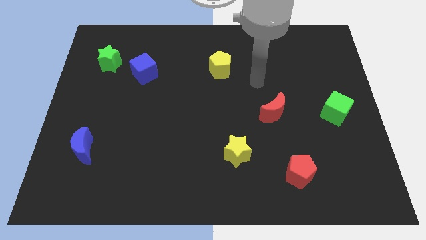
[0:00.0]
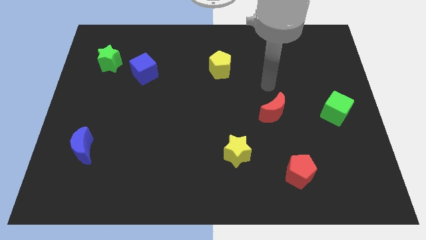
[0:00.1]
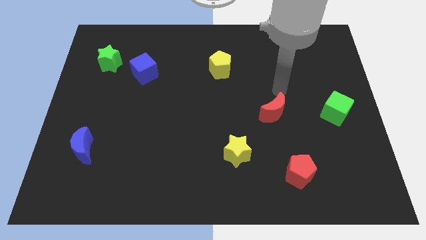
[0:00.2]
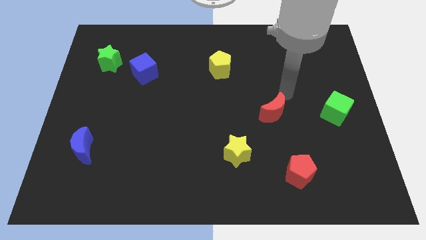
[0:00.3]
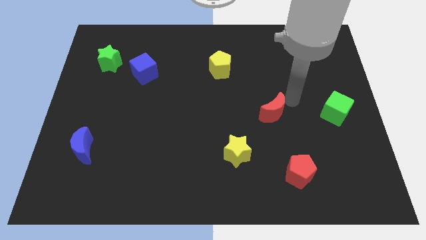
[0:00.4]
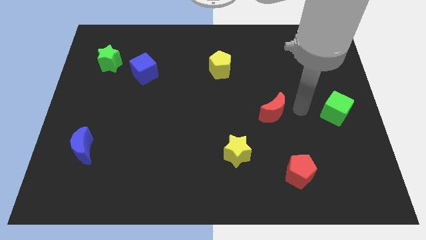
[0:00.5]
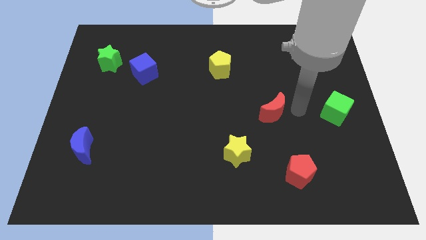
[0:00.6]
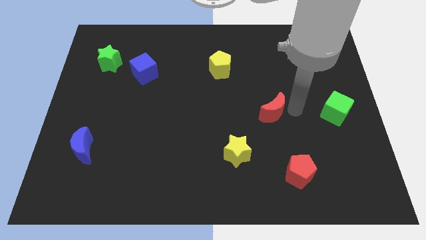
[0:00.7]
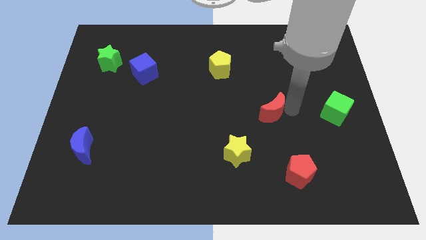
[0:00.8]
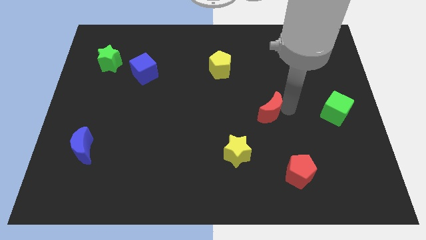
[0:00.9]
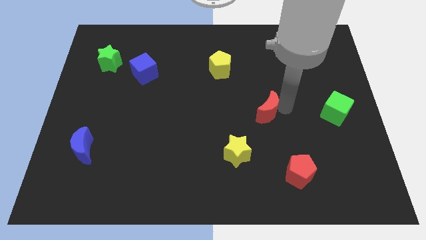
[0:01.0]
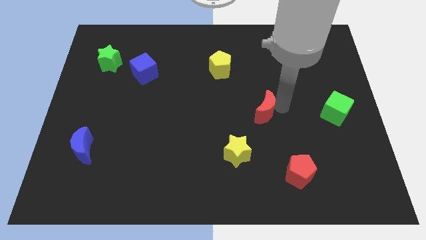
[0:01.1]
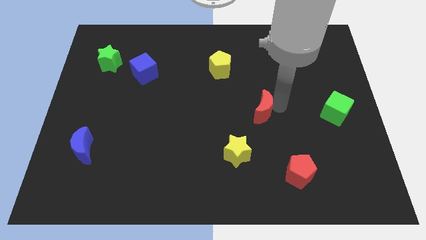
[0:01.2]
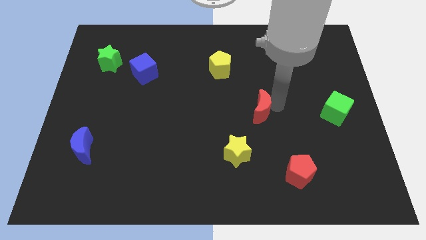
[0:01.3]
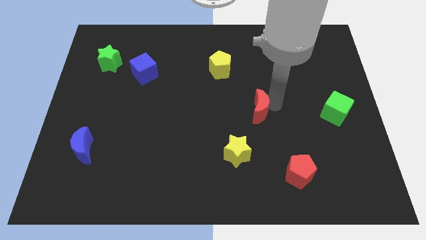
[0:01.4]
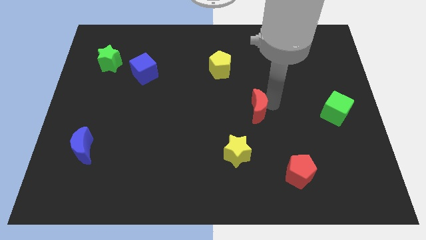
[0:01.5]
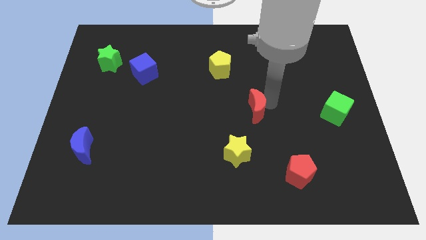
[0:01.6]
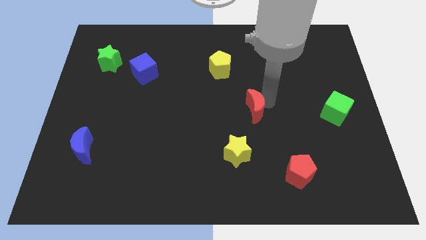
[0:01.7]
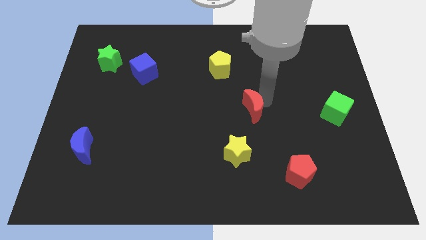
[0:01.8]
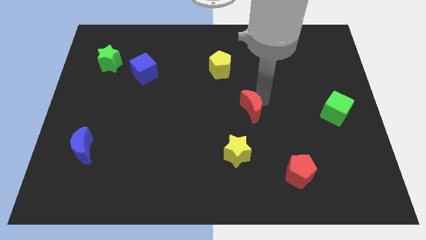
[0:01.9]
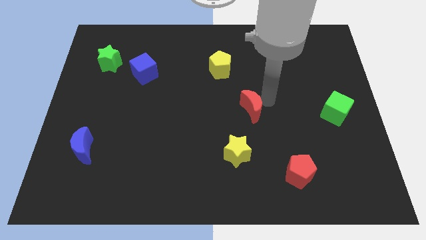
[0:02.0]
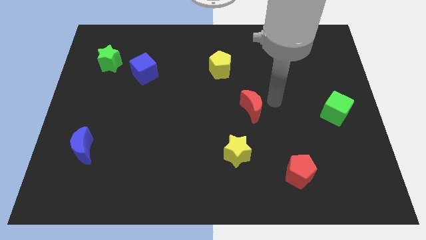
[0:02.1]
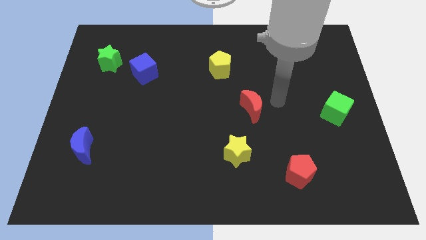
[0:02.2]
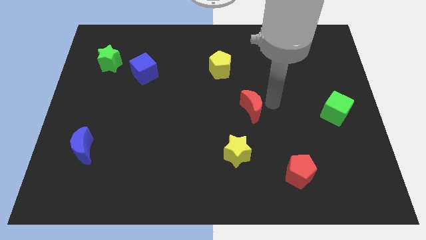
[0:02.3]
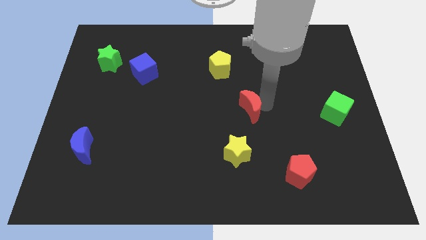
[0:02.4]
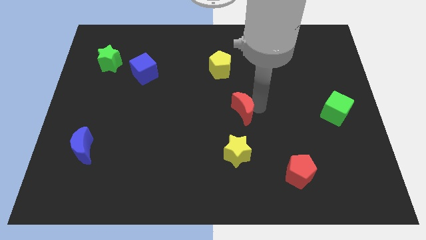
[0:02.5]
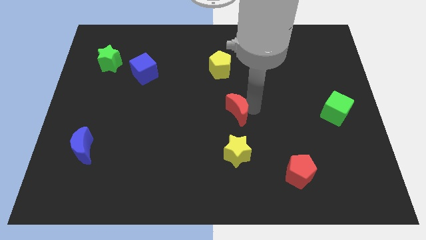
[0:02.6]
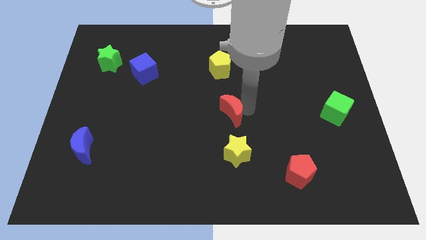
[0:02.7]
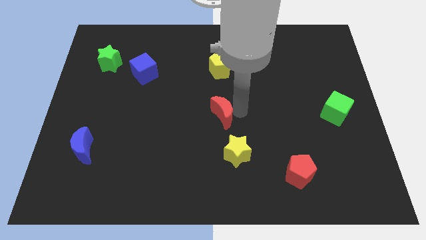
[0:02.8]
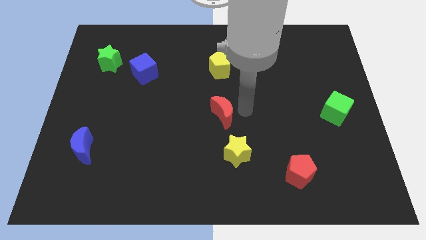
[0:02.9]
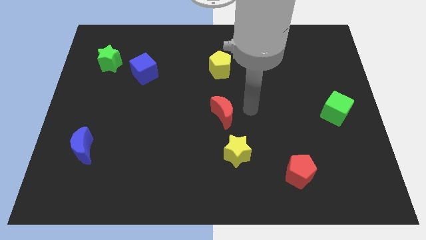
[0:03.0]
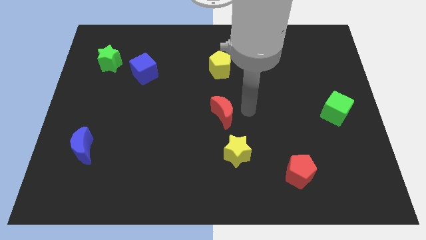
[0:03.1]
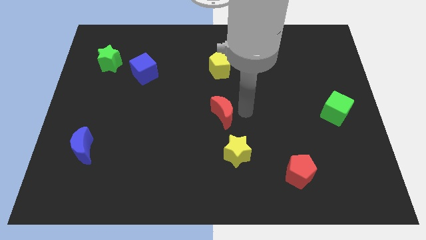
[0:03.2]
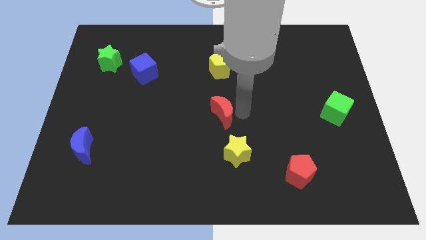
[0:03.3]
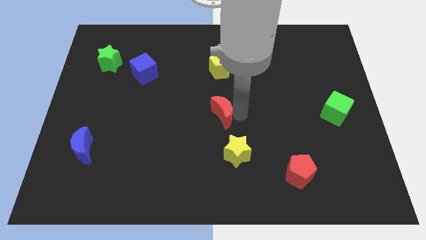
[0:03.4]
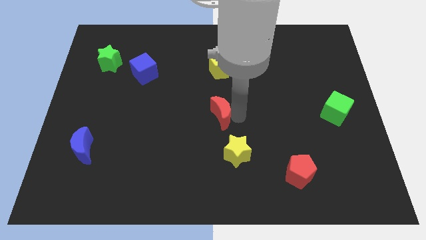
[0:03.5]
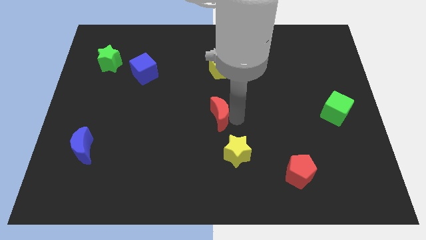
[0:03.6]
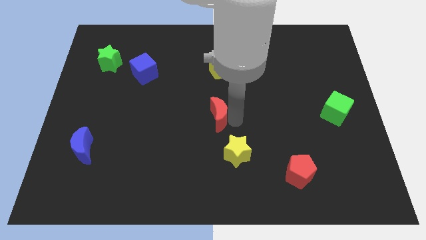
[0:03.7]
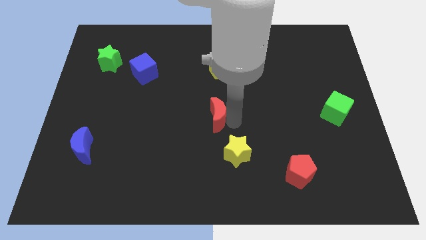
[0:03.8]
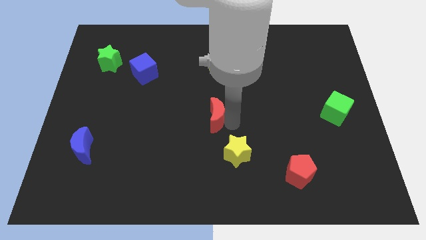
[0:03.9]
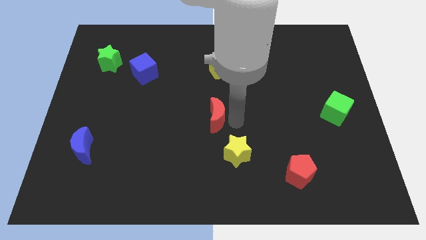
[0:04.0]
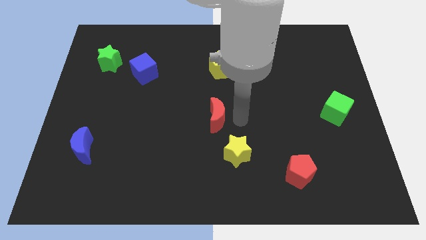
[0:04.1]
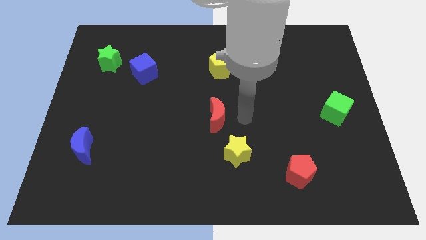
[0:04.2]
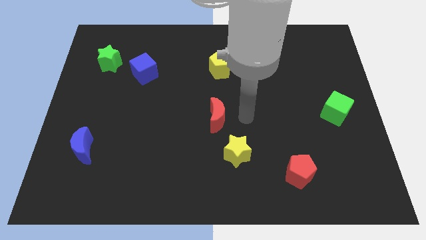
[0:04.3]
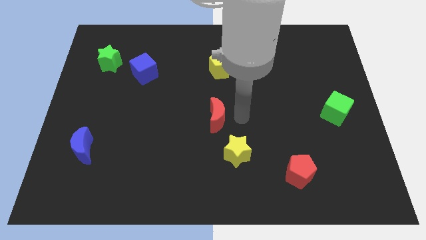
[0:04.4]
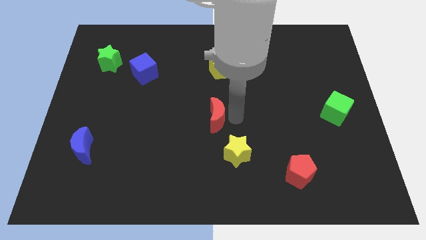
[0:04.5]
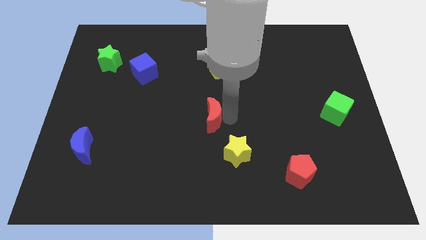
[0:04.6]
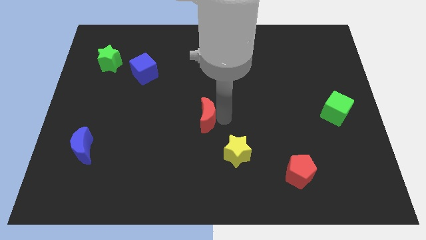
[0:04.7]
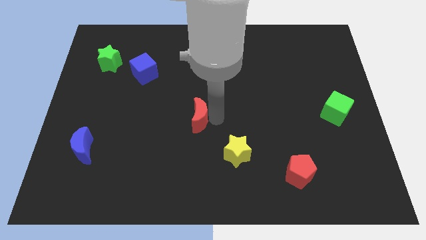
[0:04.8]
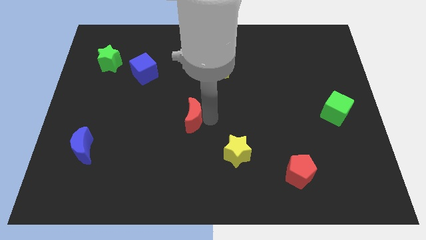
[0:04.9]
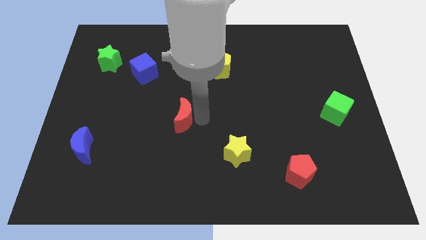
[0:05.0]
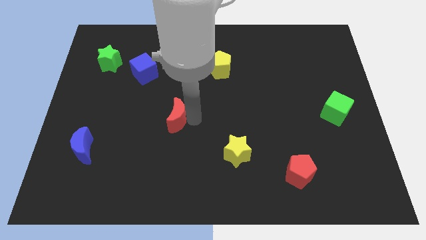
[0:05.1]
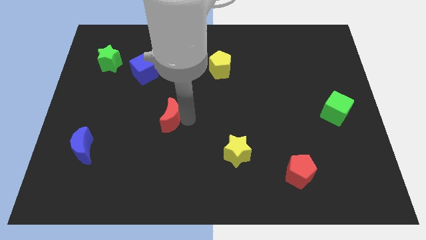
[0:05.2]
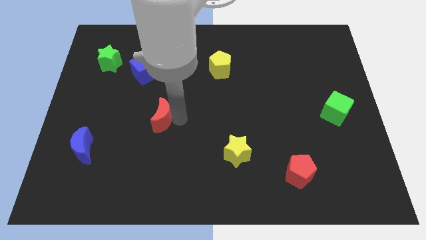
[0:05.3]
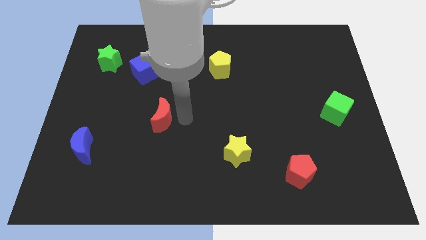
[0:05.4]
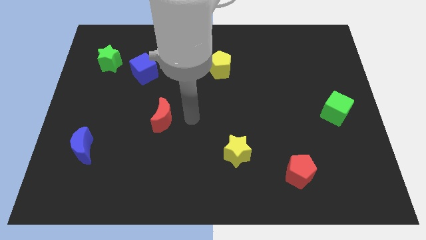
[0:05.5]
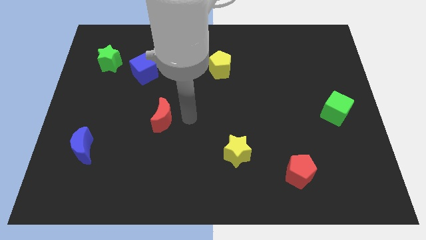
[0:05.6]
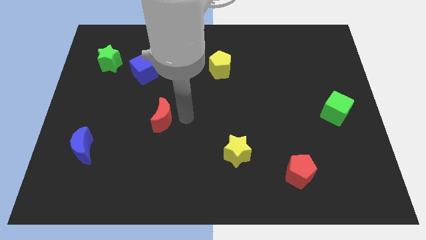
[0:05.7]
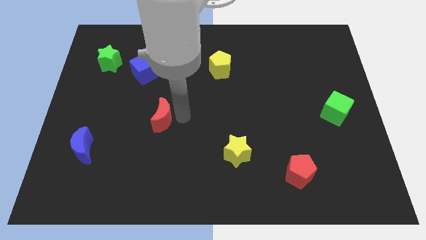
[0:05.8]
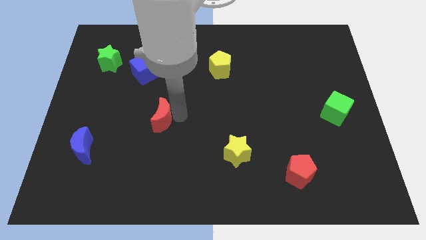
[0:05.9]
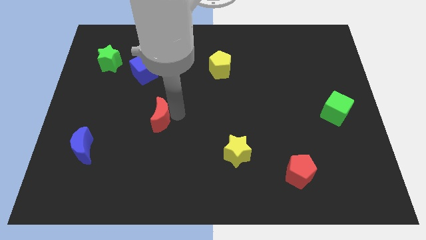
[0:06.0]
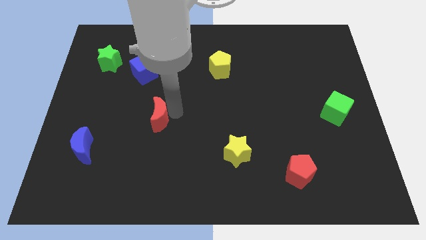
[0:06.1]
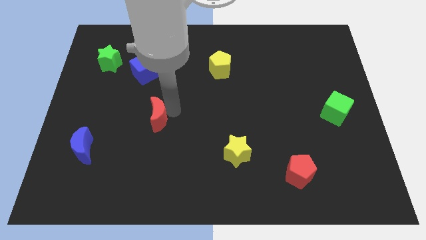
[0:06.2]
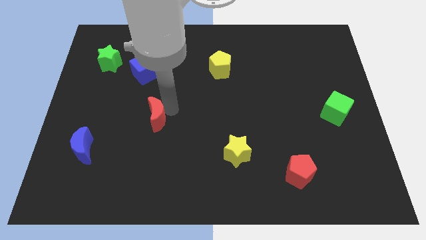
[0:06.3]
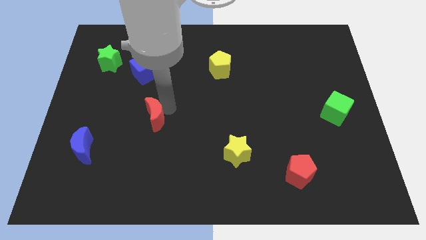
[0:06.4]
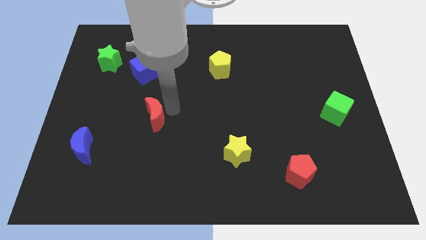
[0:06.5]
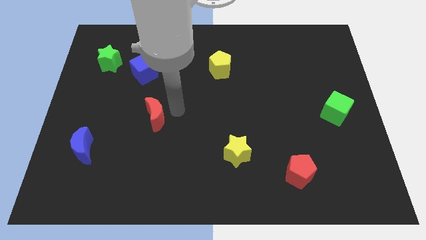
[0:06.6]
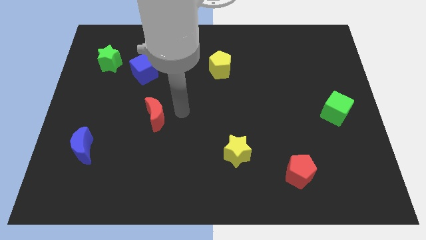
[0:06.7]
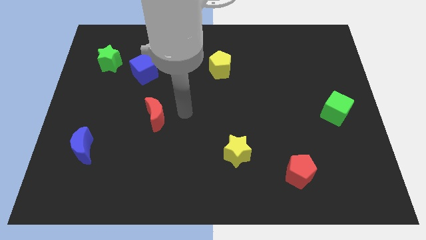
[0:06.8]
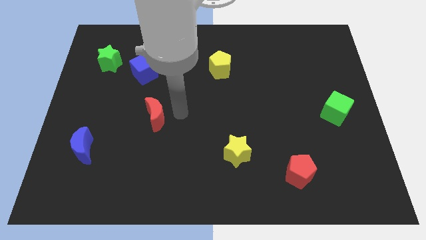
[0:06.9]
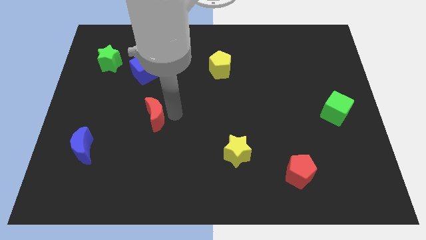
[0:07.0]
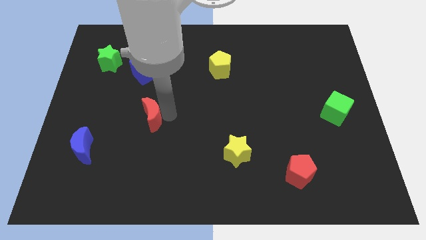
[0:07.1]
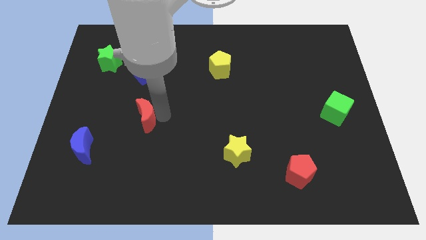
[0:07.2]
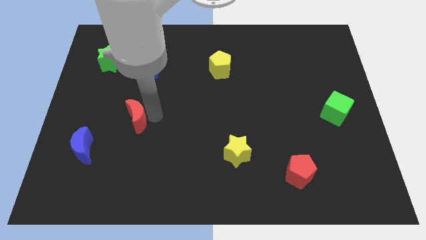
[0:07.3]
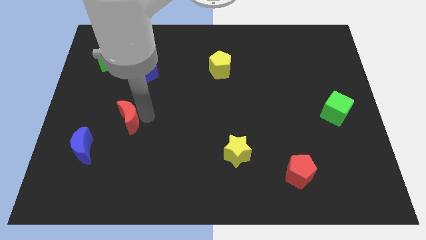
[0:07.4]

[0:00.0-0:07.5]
slide the red moon to the top right of the blue moon

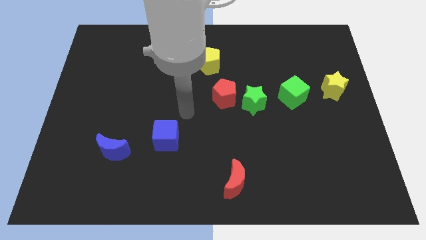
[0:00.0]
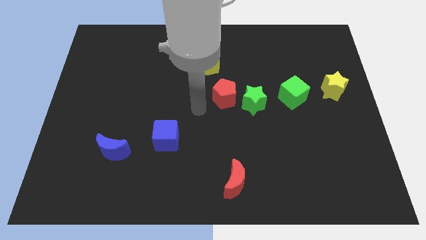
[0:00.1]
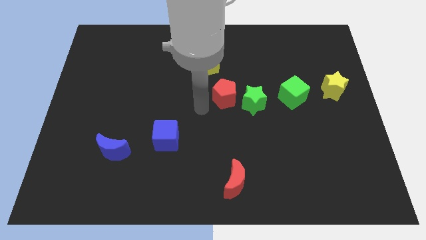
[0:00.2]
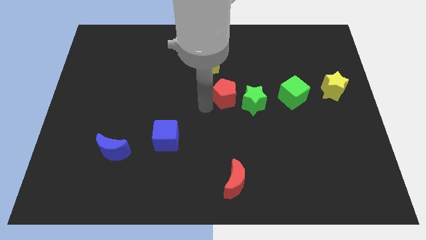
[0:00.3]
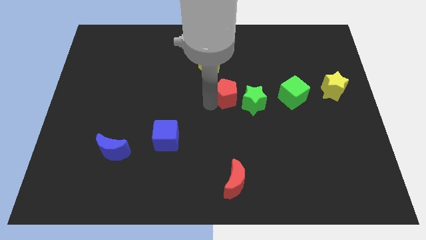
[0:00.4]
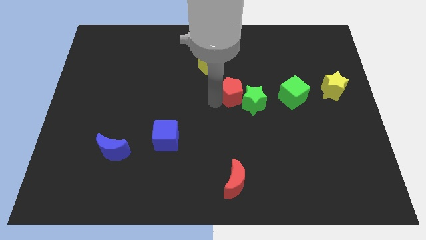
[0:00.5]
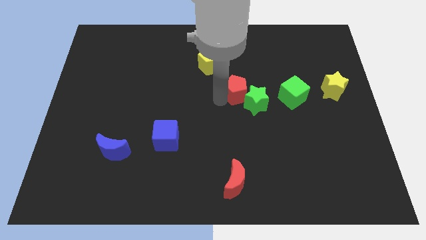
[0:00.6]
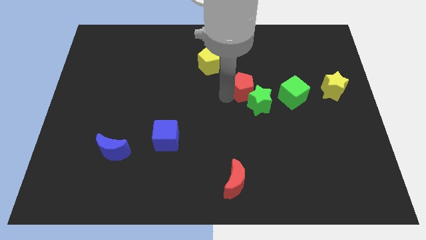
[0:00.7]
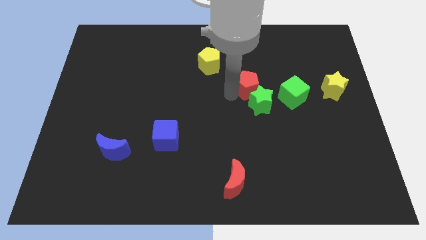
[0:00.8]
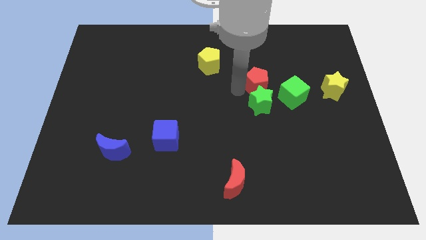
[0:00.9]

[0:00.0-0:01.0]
put the red pentagon diagonally up and to the right of the green star
